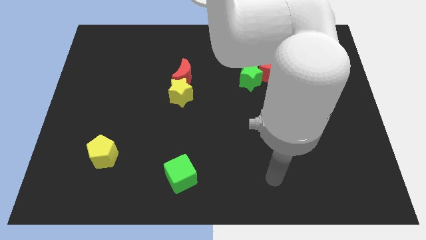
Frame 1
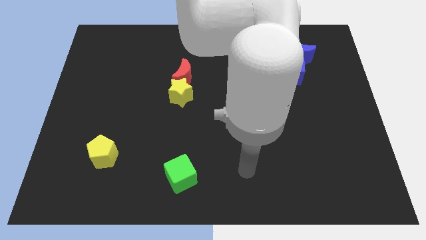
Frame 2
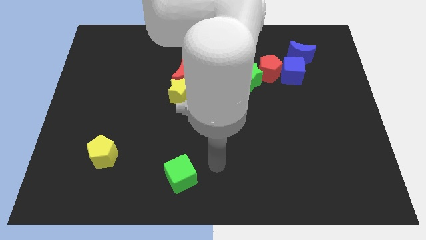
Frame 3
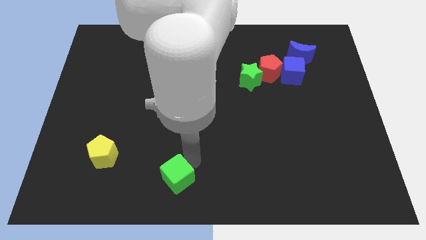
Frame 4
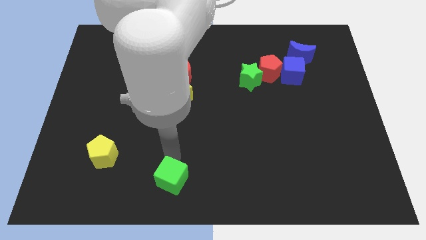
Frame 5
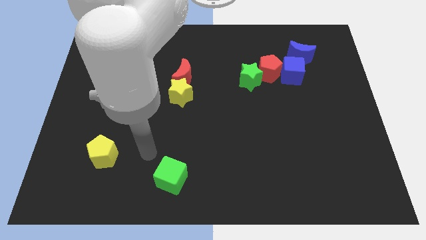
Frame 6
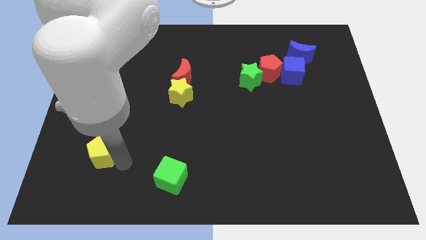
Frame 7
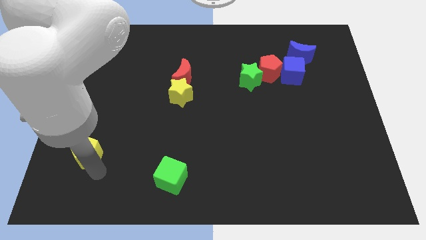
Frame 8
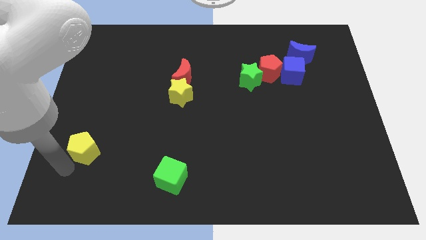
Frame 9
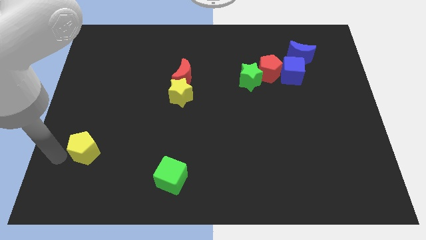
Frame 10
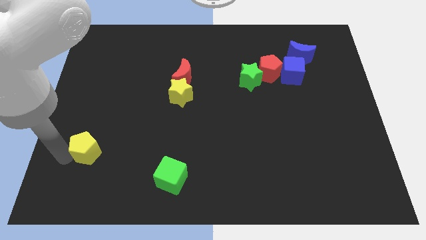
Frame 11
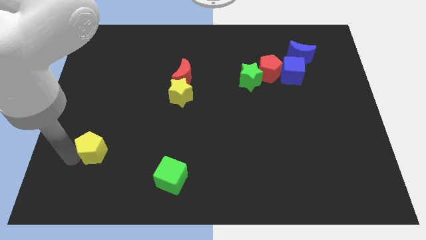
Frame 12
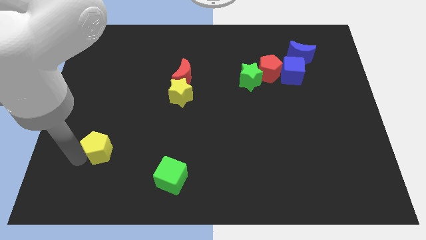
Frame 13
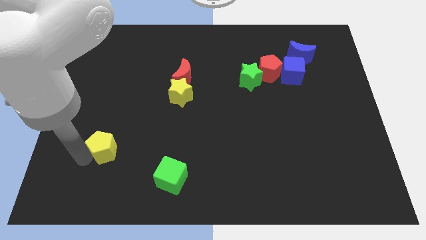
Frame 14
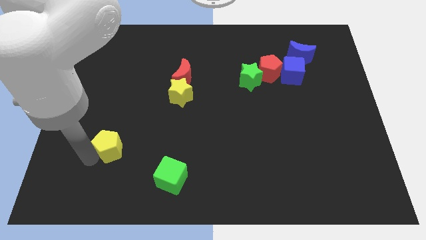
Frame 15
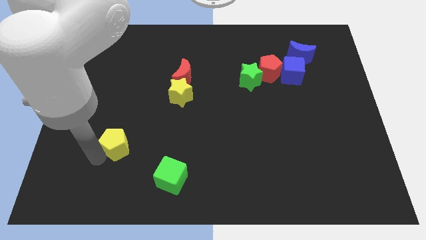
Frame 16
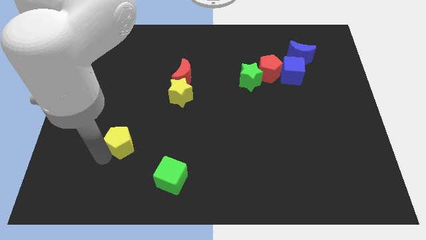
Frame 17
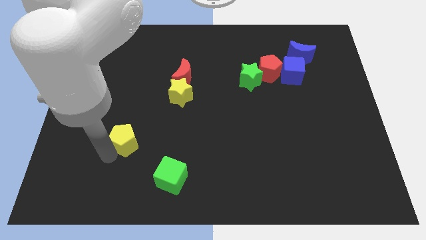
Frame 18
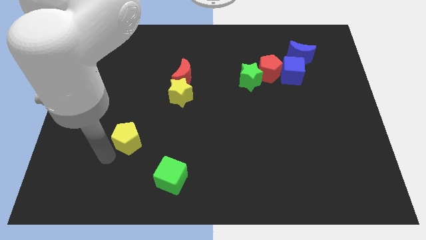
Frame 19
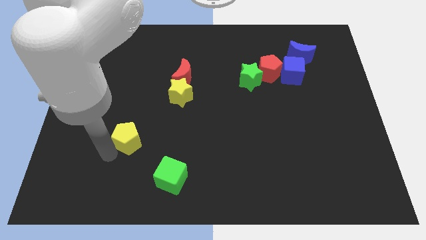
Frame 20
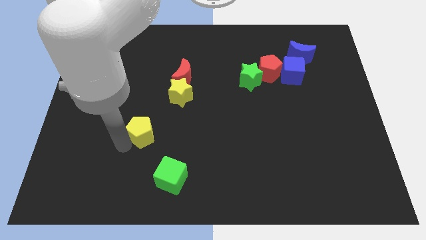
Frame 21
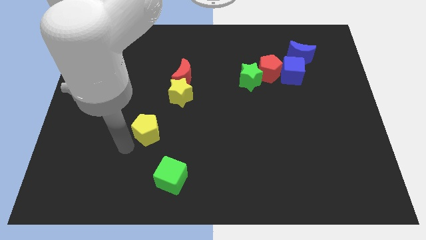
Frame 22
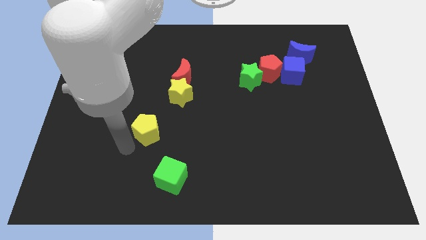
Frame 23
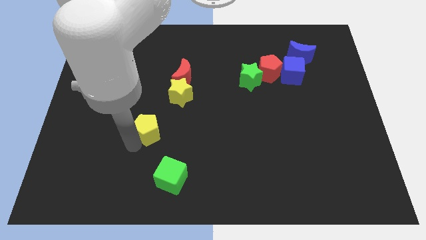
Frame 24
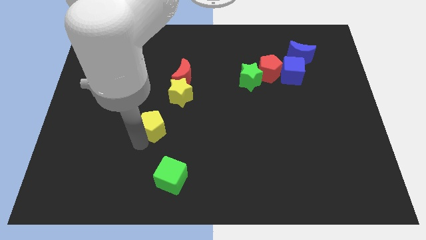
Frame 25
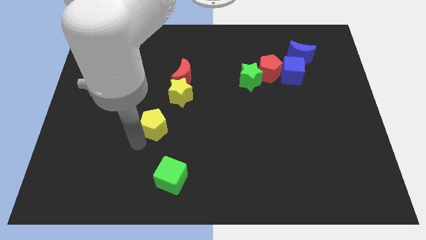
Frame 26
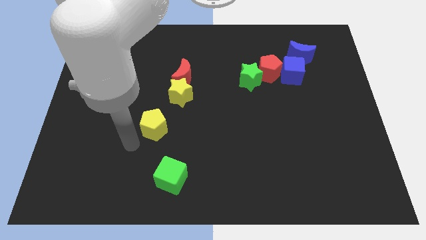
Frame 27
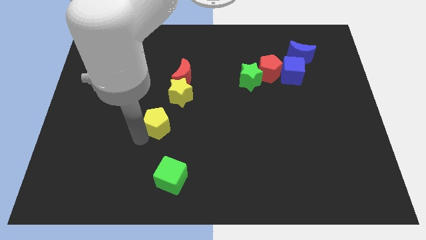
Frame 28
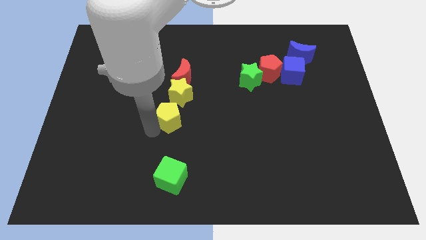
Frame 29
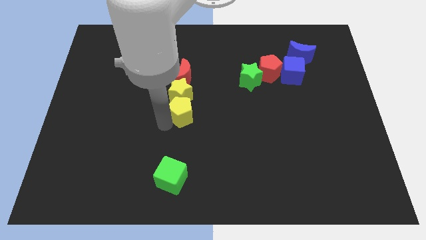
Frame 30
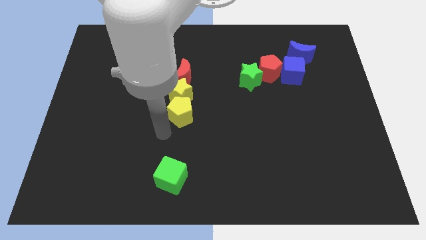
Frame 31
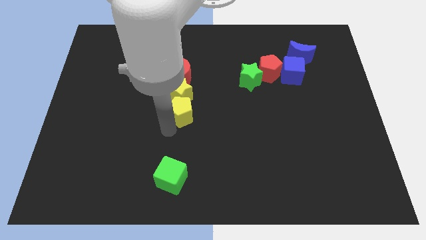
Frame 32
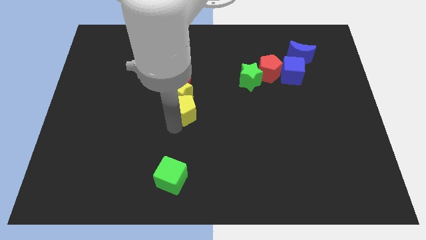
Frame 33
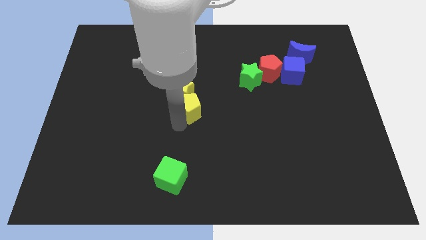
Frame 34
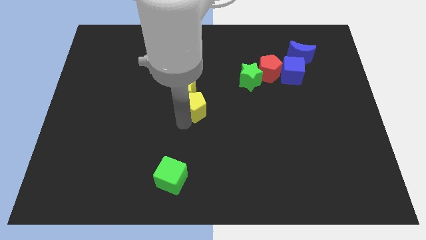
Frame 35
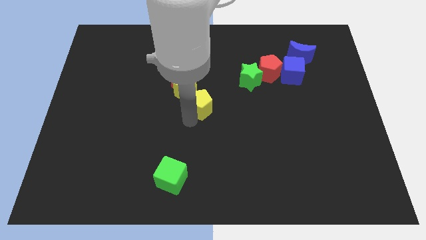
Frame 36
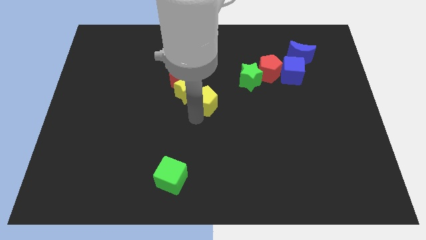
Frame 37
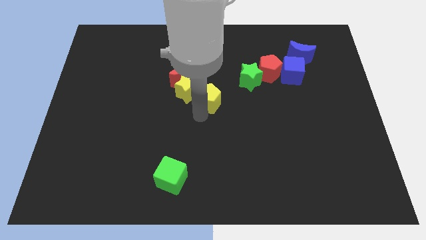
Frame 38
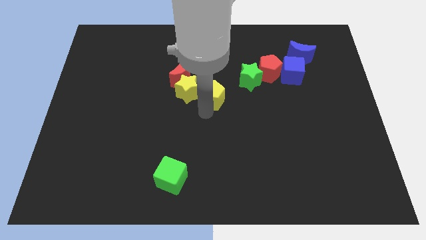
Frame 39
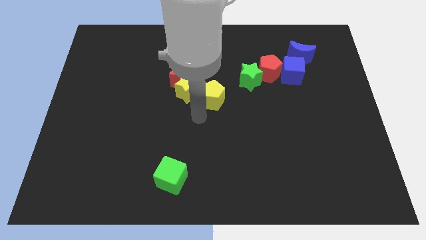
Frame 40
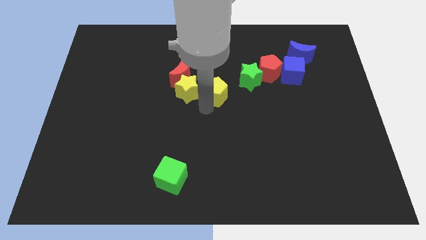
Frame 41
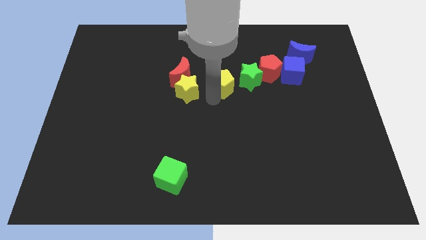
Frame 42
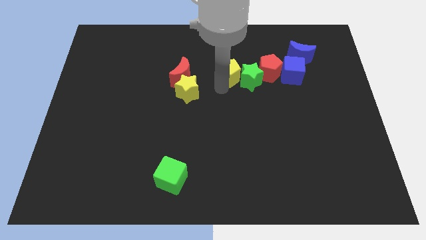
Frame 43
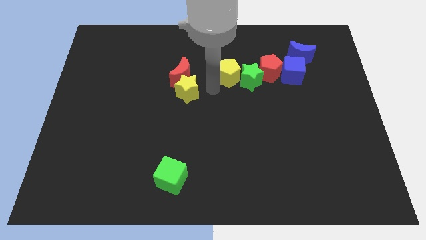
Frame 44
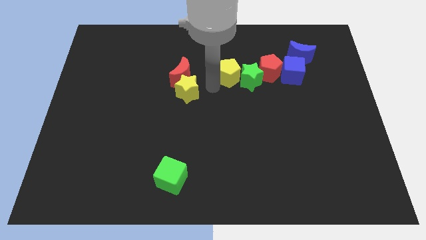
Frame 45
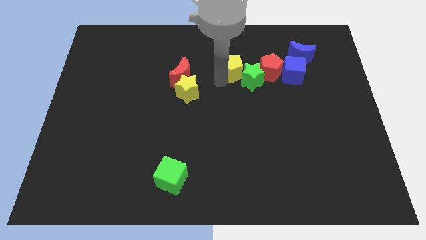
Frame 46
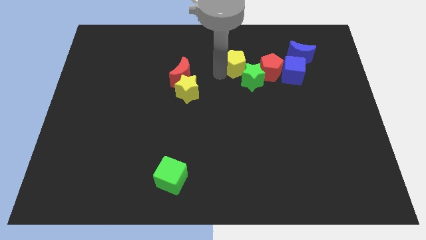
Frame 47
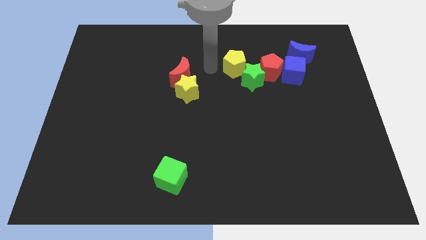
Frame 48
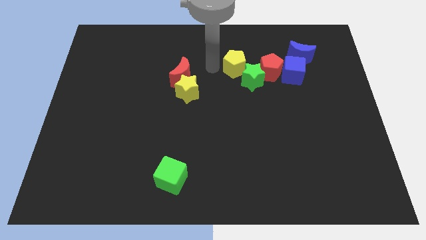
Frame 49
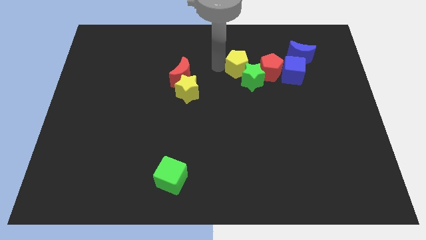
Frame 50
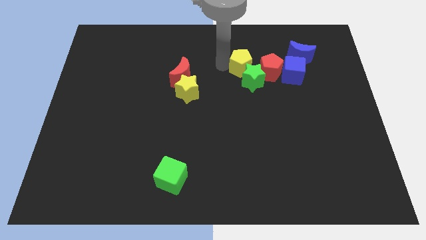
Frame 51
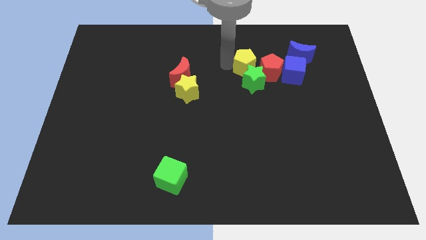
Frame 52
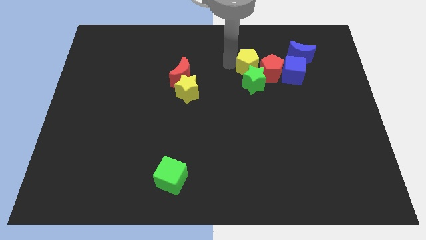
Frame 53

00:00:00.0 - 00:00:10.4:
put the yellow pentagon towards the red pentagon

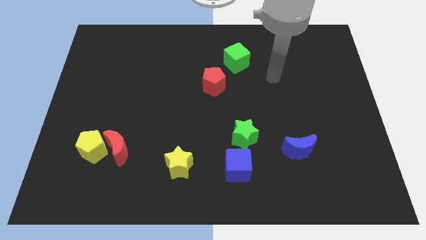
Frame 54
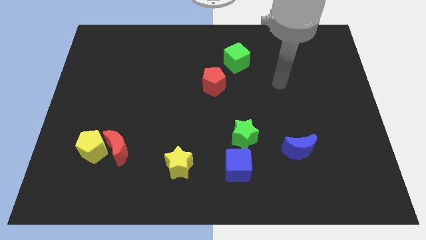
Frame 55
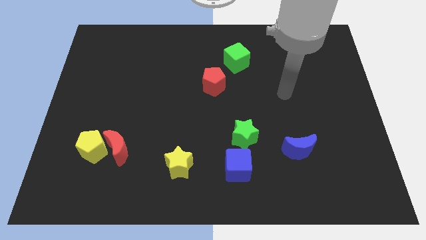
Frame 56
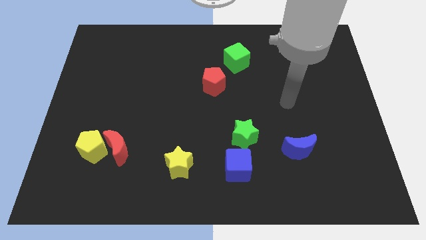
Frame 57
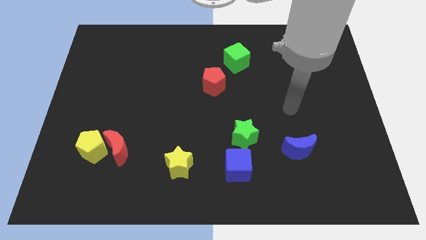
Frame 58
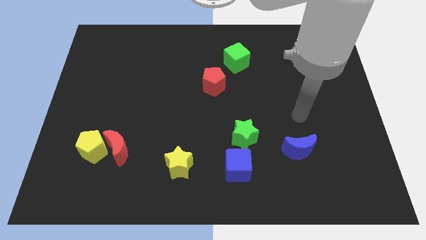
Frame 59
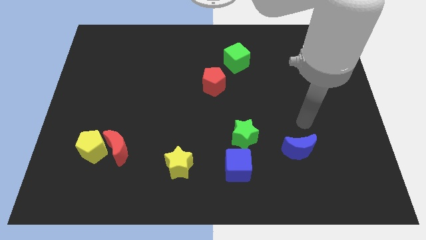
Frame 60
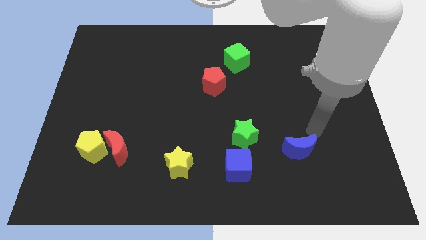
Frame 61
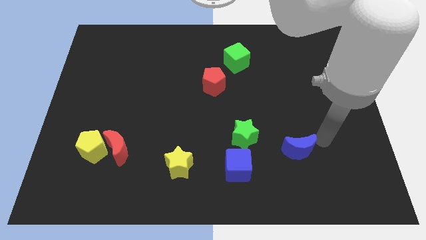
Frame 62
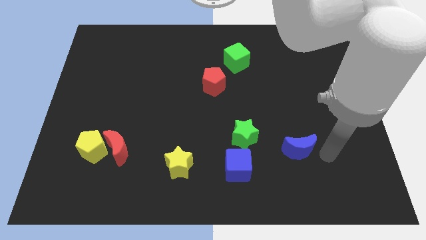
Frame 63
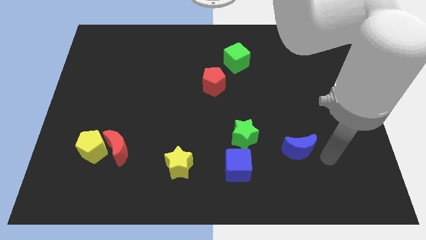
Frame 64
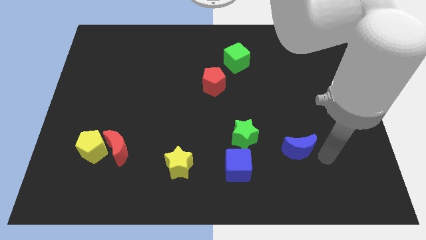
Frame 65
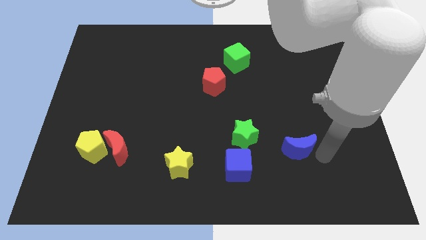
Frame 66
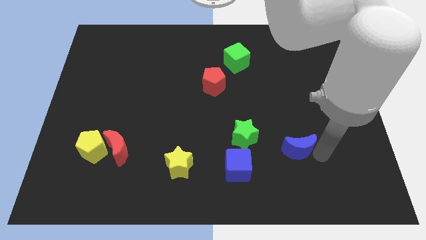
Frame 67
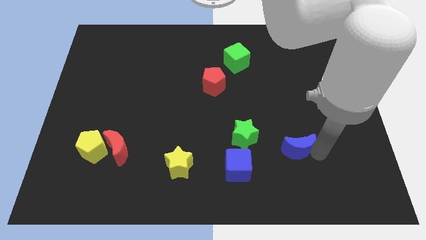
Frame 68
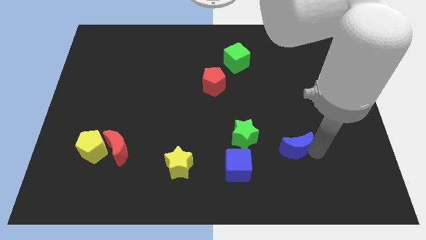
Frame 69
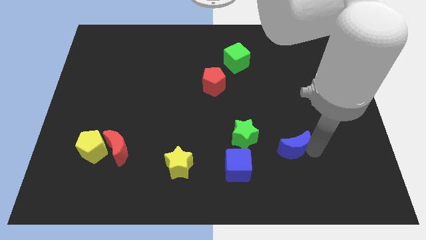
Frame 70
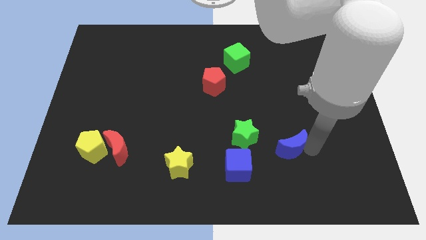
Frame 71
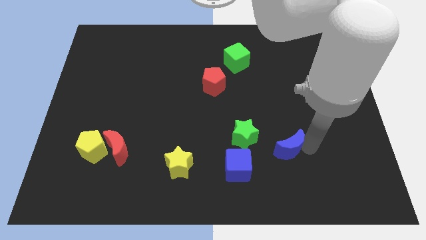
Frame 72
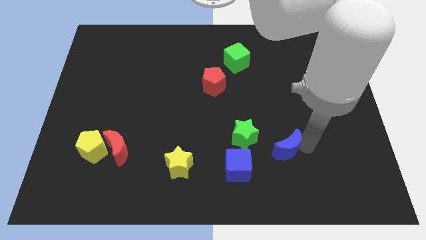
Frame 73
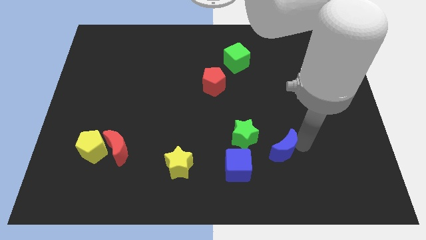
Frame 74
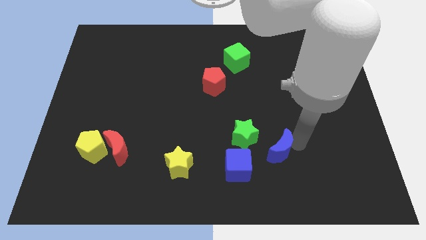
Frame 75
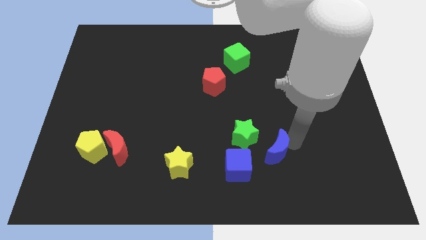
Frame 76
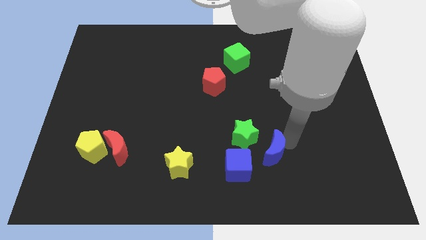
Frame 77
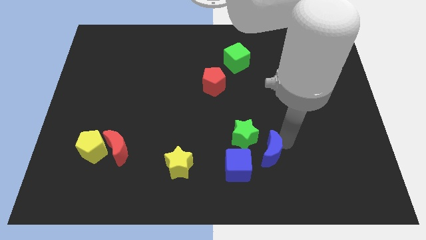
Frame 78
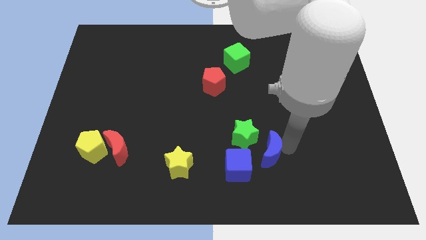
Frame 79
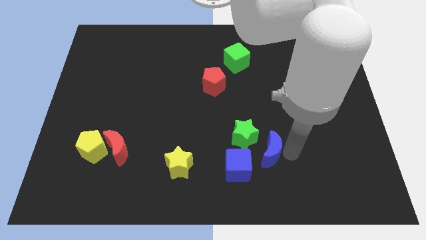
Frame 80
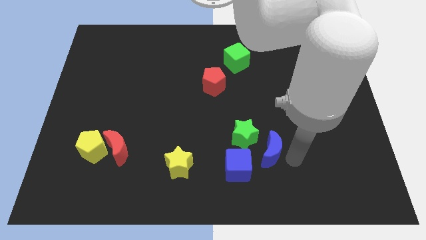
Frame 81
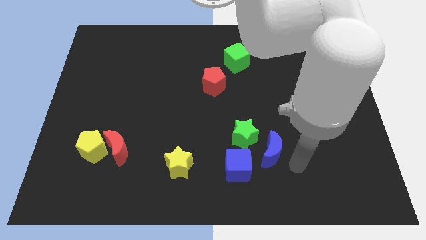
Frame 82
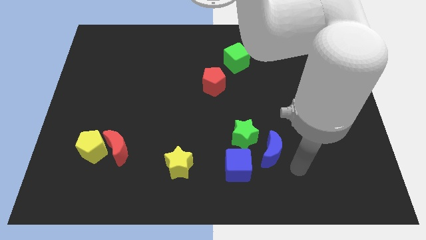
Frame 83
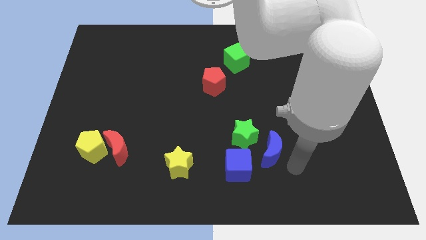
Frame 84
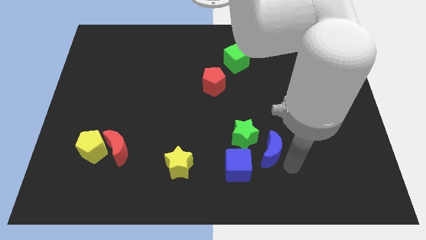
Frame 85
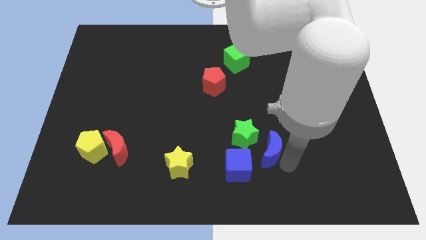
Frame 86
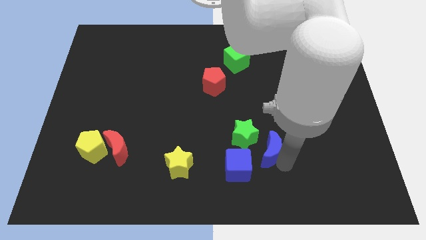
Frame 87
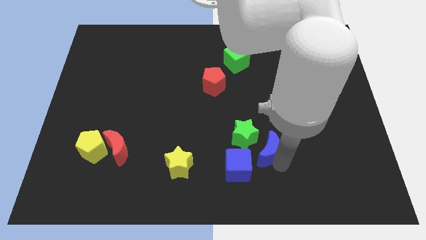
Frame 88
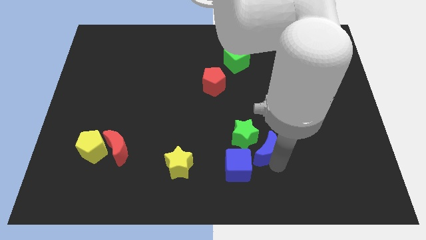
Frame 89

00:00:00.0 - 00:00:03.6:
move the blue moon towards the green star
